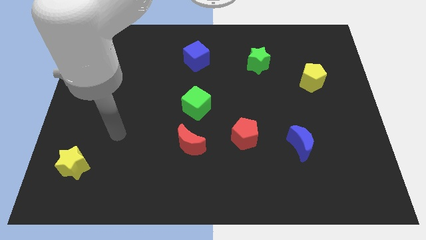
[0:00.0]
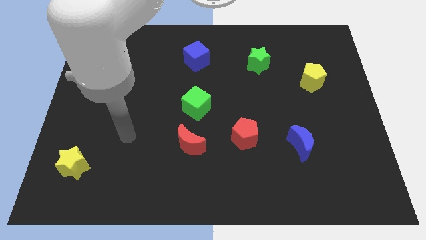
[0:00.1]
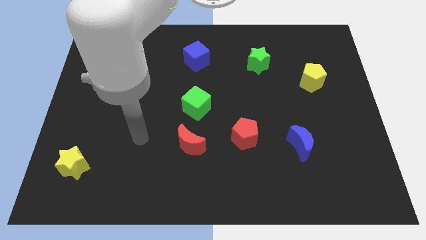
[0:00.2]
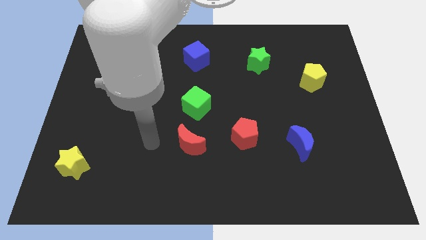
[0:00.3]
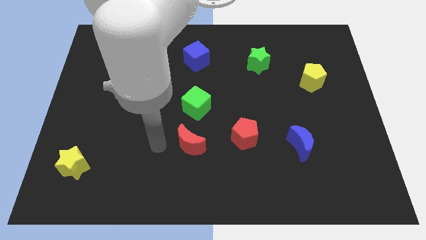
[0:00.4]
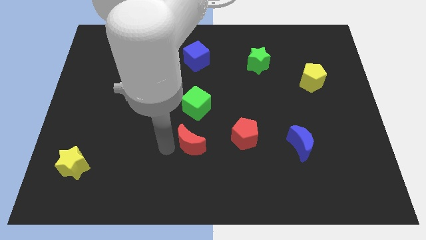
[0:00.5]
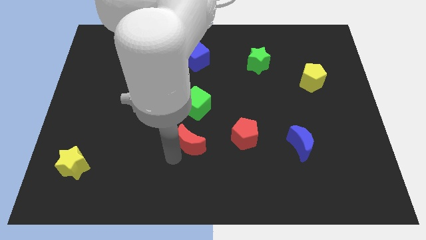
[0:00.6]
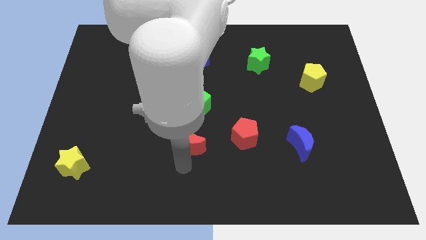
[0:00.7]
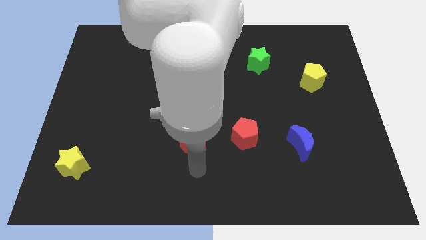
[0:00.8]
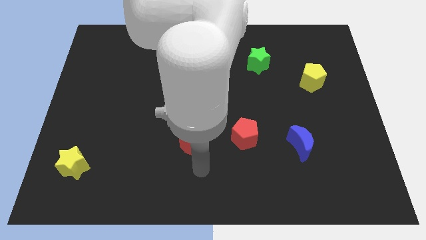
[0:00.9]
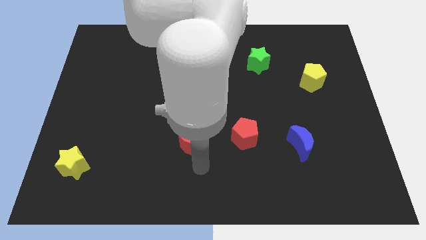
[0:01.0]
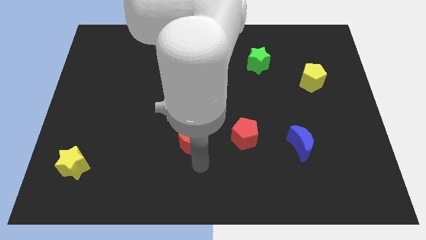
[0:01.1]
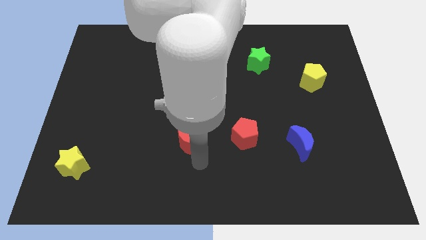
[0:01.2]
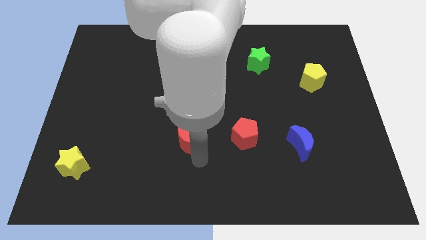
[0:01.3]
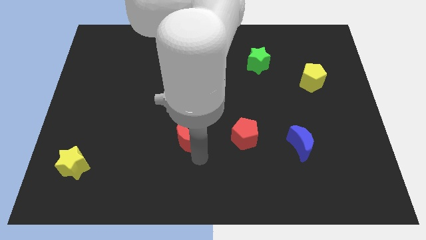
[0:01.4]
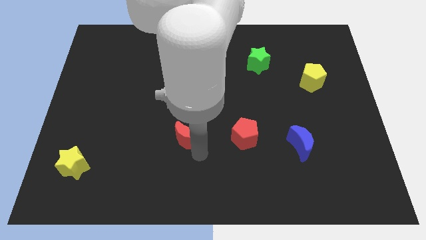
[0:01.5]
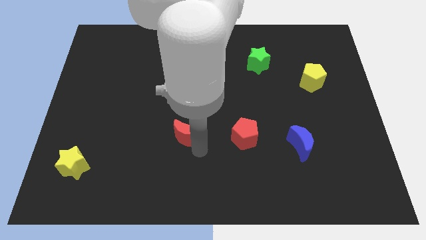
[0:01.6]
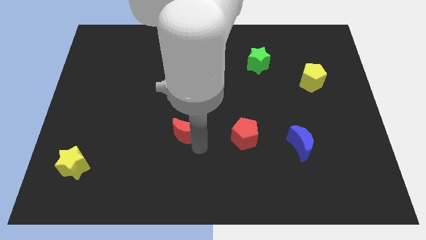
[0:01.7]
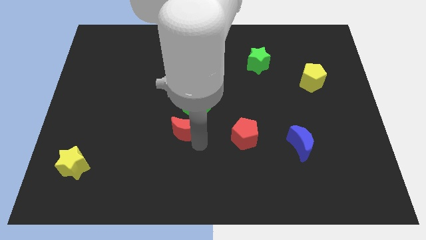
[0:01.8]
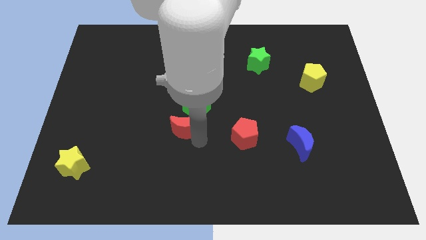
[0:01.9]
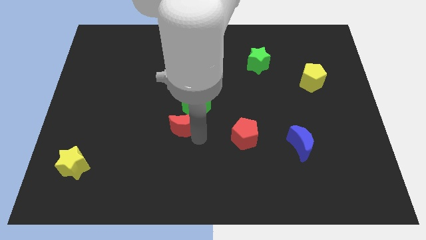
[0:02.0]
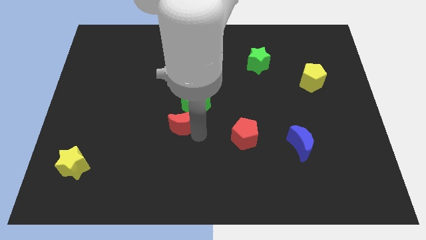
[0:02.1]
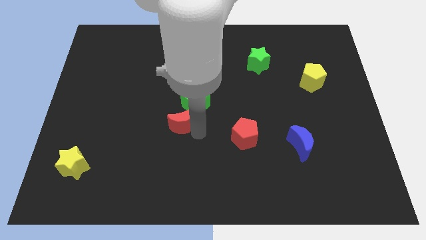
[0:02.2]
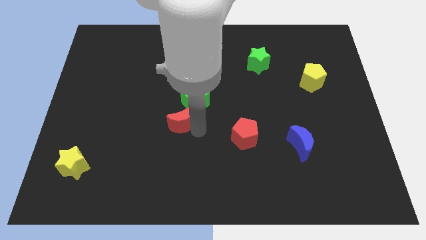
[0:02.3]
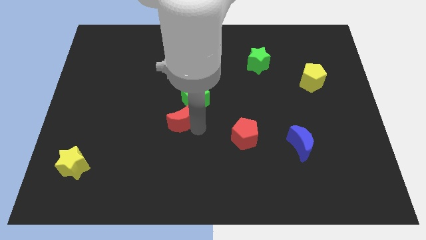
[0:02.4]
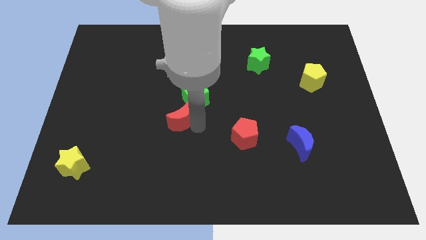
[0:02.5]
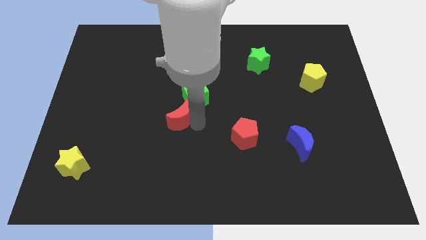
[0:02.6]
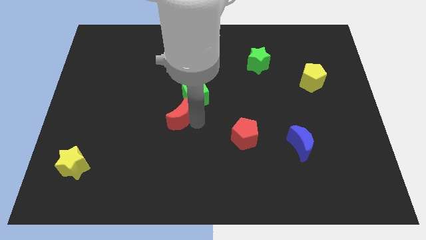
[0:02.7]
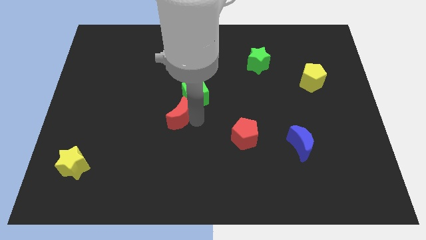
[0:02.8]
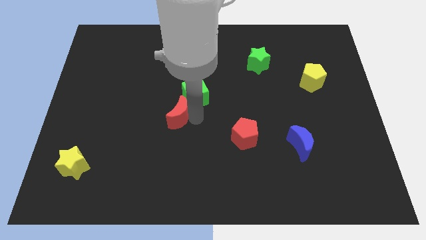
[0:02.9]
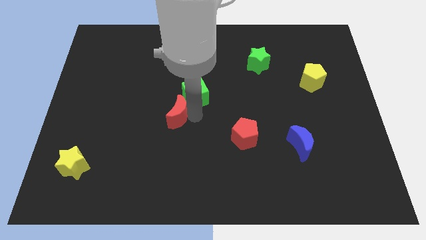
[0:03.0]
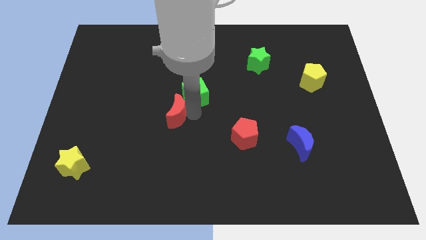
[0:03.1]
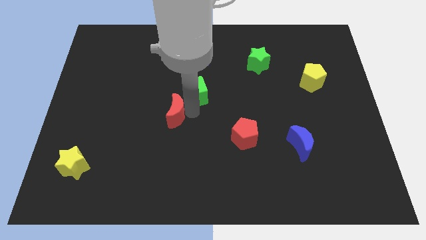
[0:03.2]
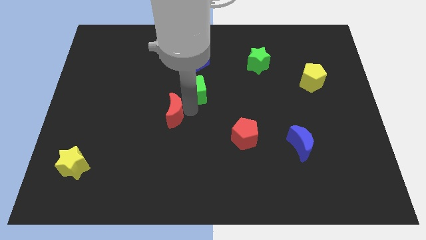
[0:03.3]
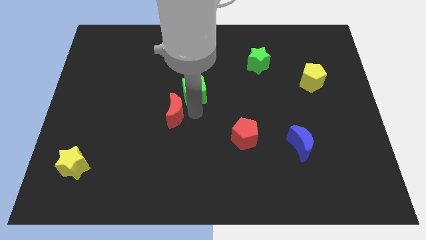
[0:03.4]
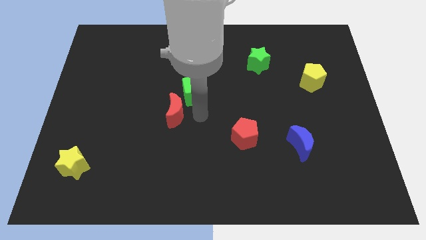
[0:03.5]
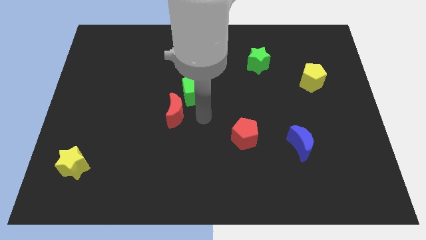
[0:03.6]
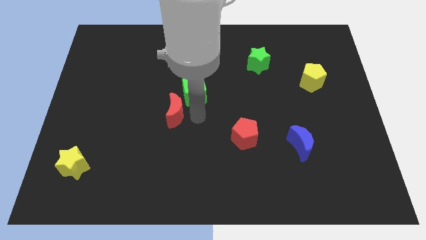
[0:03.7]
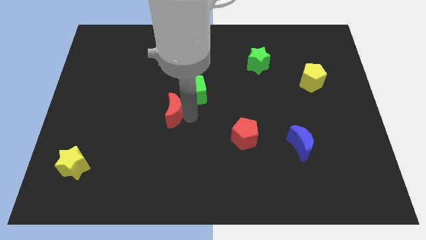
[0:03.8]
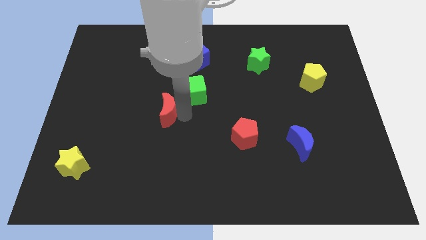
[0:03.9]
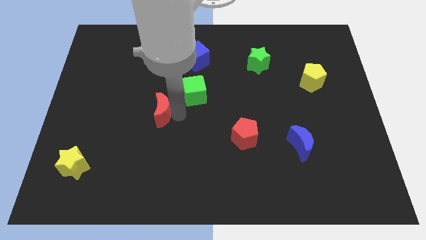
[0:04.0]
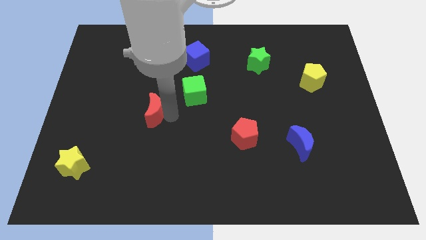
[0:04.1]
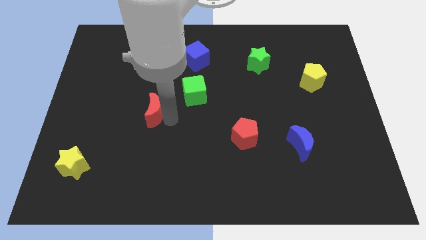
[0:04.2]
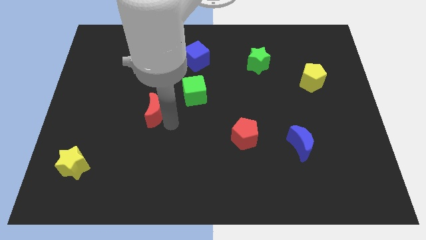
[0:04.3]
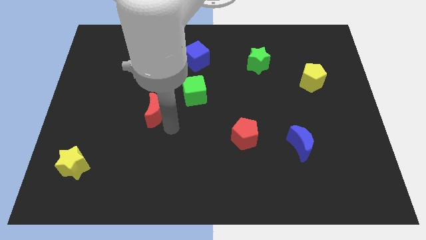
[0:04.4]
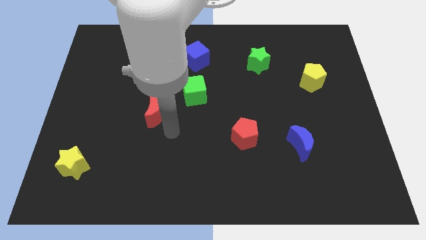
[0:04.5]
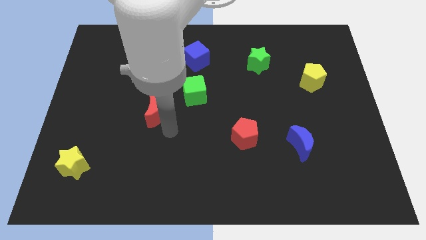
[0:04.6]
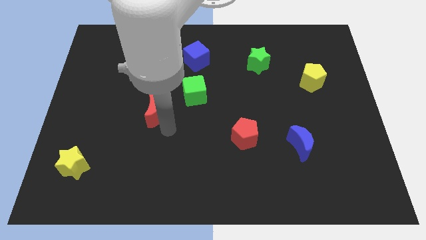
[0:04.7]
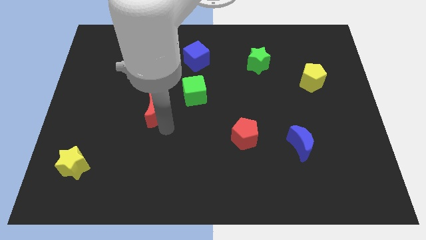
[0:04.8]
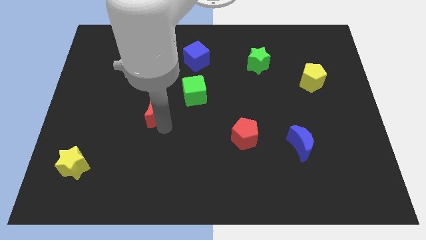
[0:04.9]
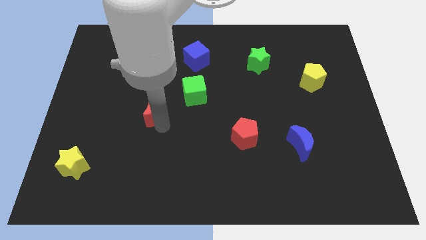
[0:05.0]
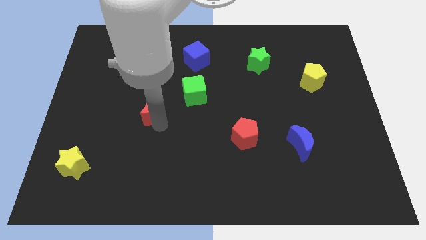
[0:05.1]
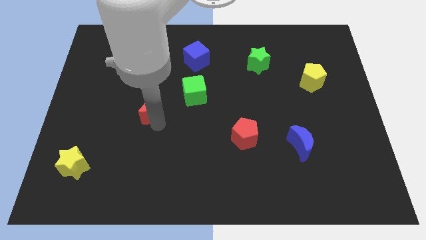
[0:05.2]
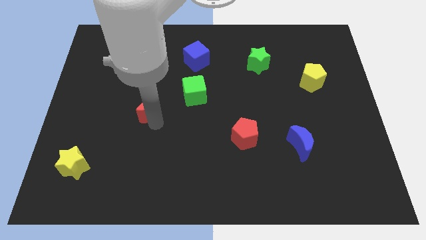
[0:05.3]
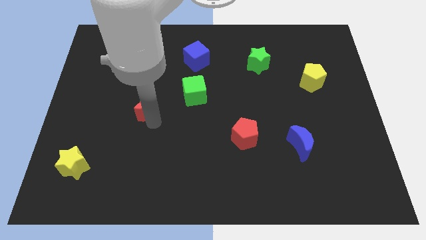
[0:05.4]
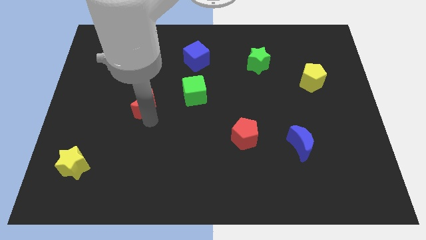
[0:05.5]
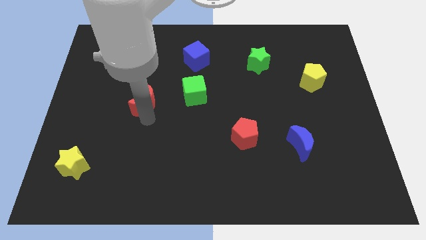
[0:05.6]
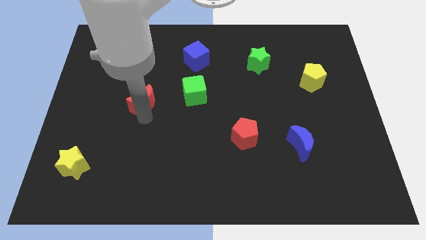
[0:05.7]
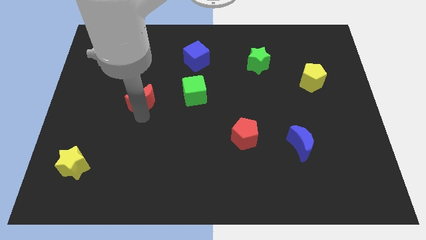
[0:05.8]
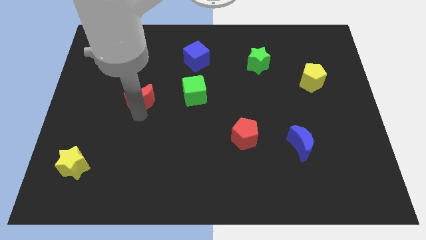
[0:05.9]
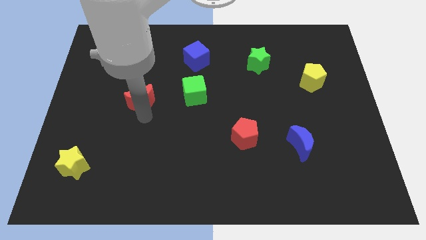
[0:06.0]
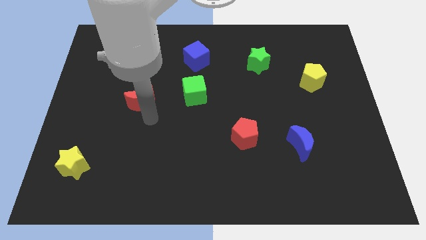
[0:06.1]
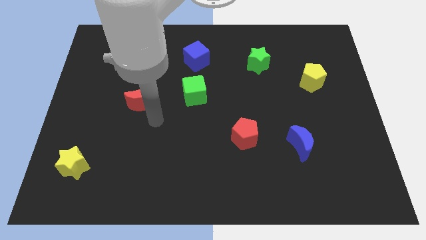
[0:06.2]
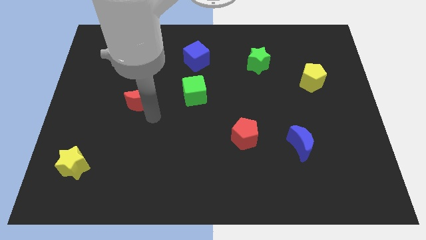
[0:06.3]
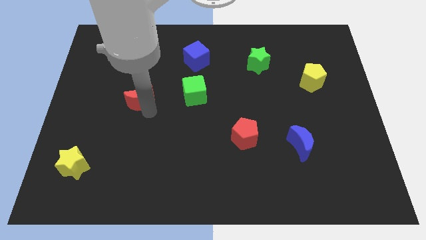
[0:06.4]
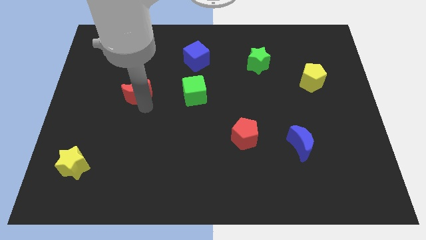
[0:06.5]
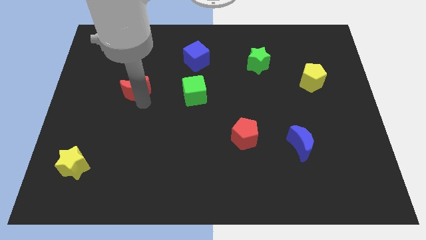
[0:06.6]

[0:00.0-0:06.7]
move the red moon diagonally up and to the left

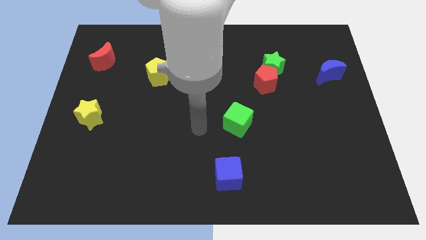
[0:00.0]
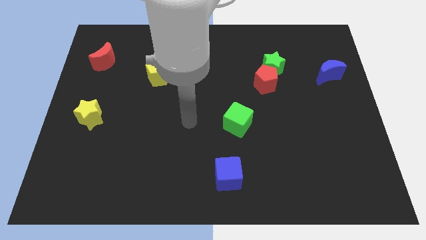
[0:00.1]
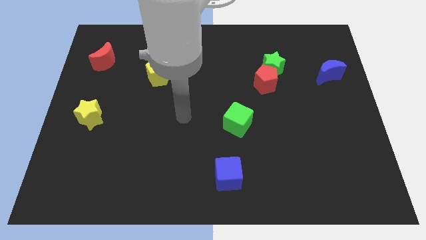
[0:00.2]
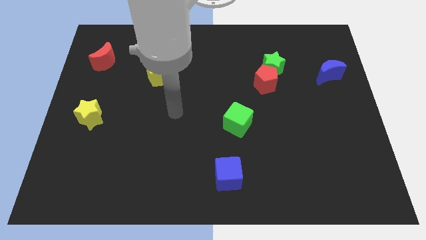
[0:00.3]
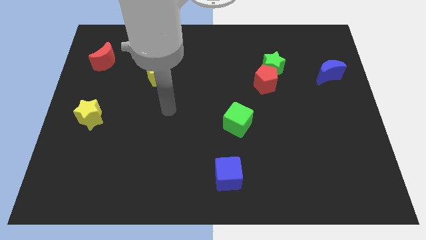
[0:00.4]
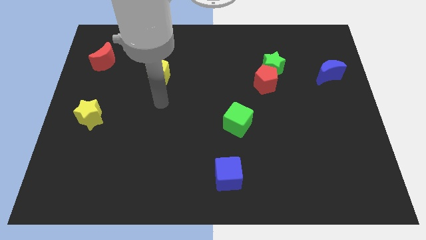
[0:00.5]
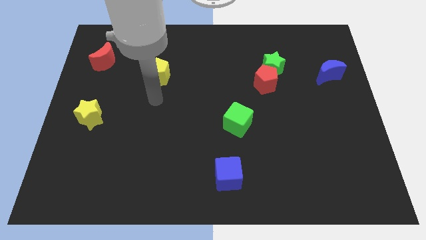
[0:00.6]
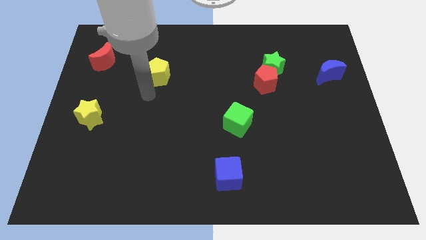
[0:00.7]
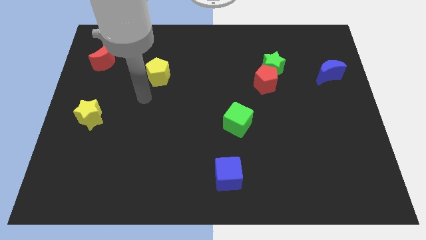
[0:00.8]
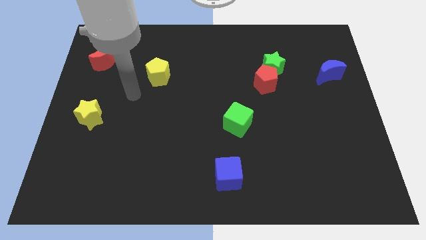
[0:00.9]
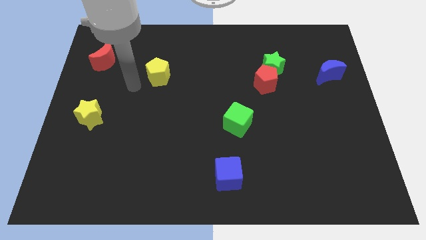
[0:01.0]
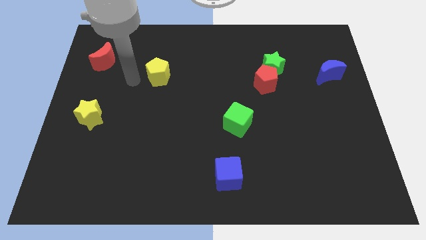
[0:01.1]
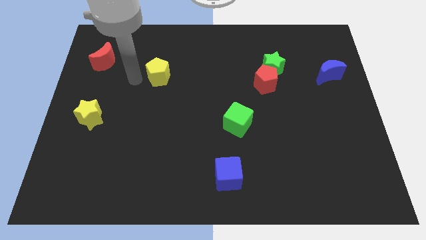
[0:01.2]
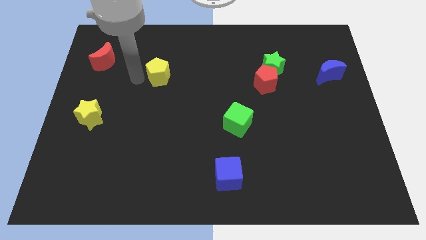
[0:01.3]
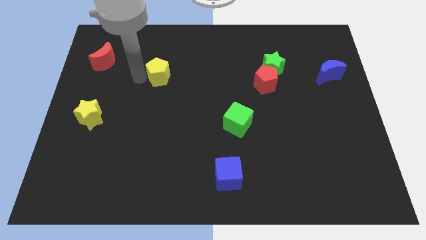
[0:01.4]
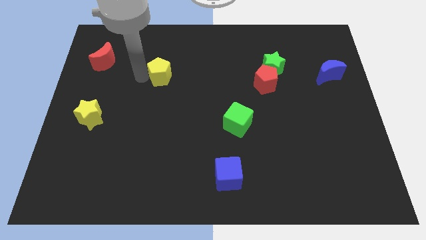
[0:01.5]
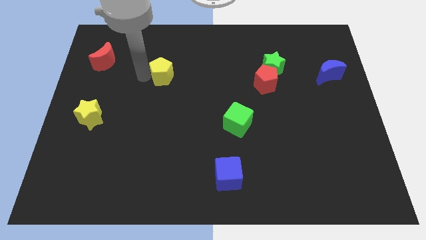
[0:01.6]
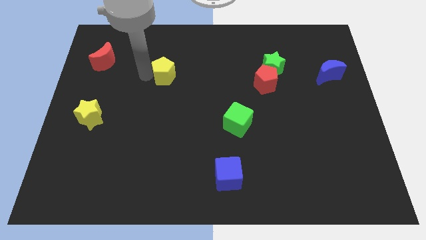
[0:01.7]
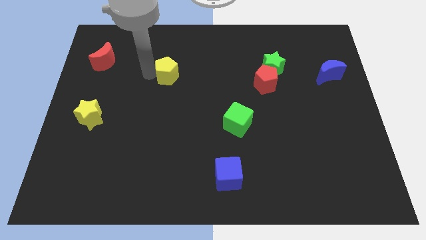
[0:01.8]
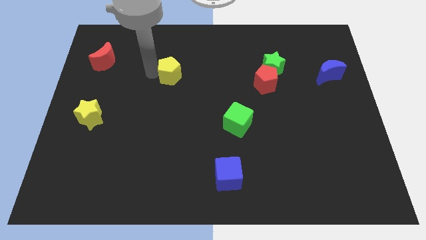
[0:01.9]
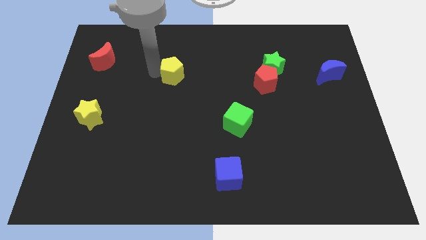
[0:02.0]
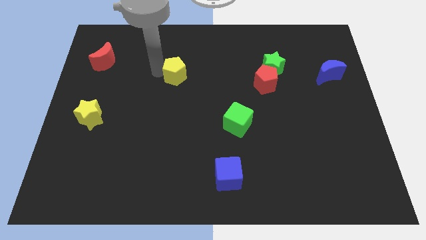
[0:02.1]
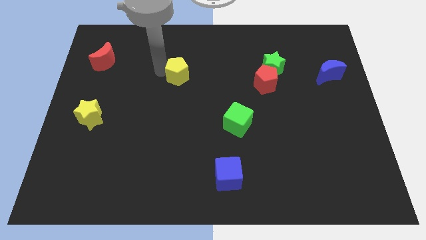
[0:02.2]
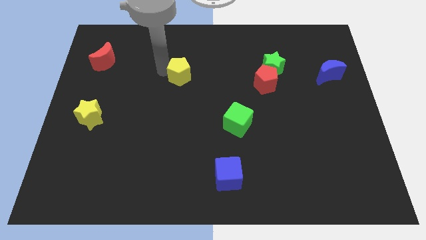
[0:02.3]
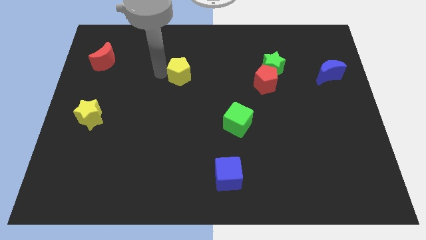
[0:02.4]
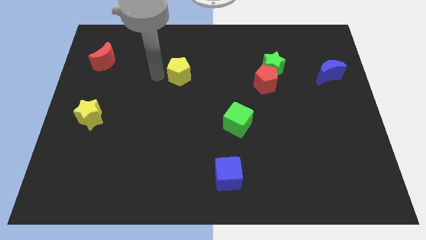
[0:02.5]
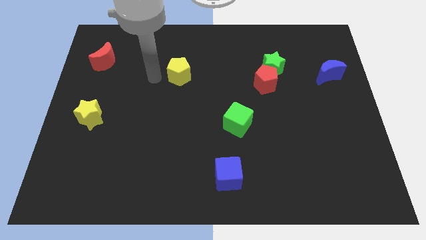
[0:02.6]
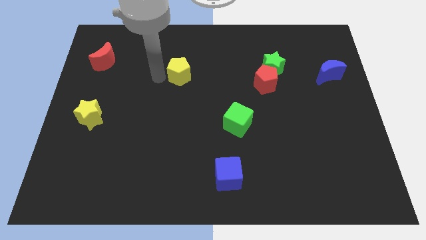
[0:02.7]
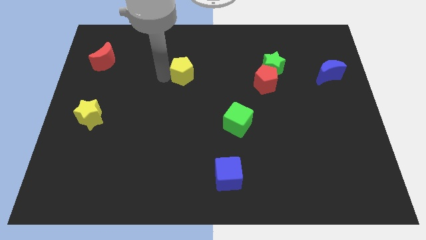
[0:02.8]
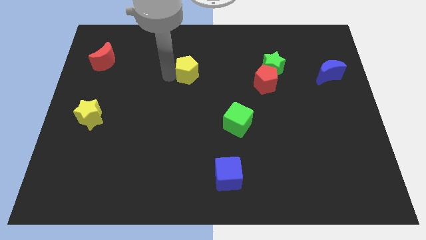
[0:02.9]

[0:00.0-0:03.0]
move the yellow pentagon to the right slightly
